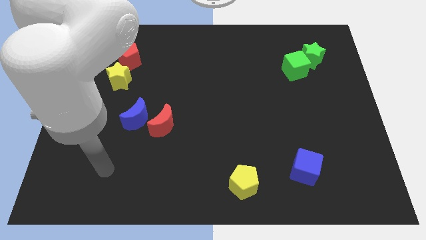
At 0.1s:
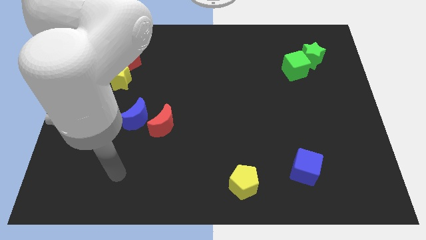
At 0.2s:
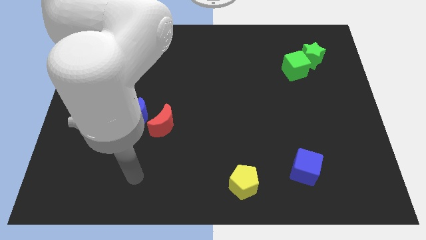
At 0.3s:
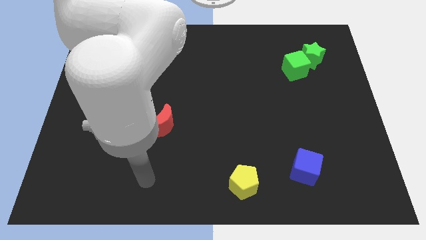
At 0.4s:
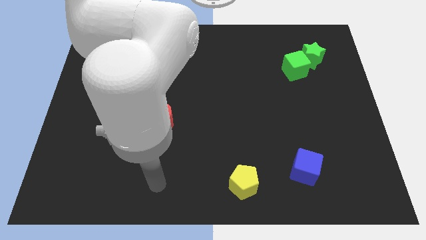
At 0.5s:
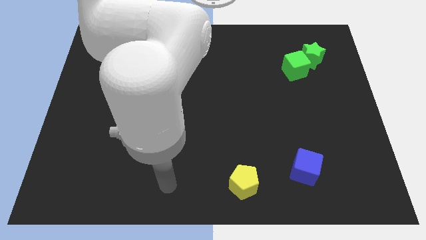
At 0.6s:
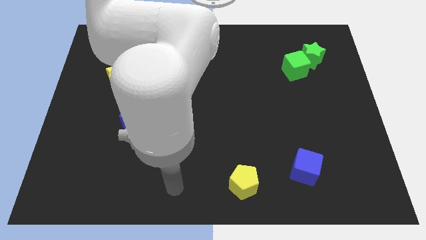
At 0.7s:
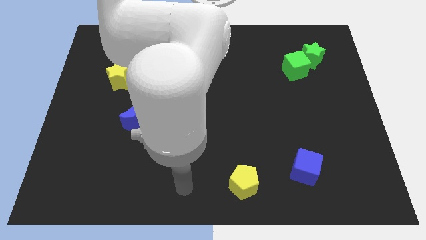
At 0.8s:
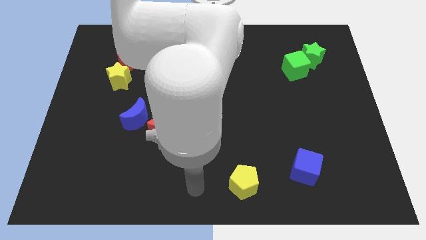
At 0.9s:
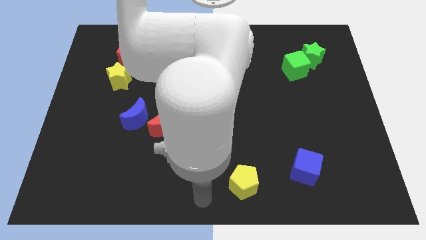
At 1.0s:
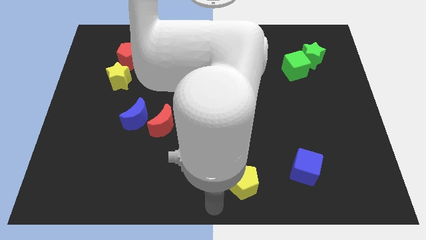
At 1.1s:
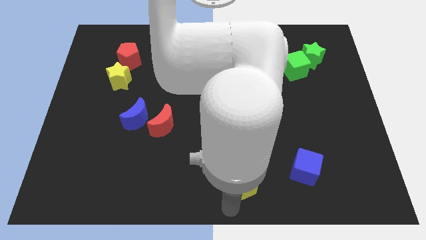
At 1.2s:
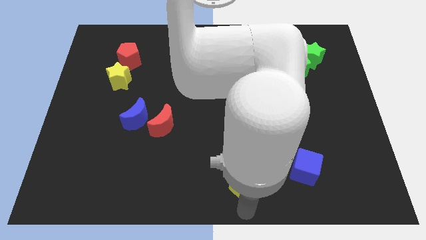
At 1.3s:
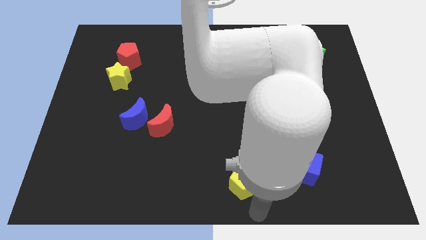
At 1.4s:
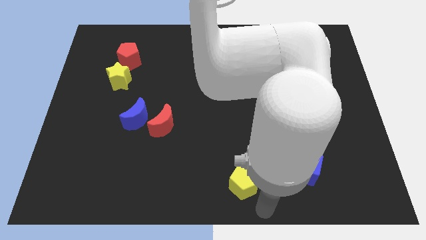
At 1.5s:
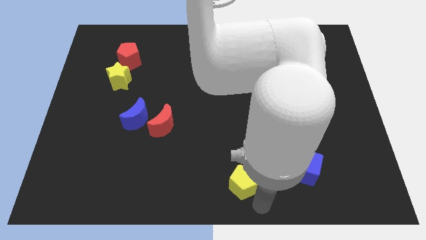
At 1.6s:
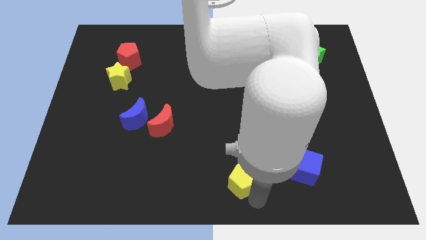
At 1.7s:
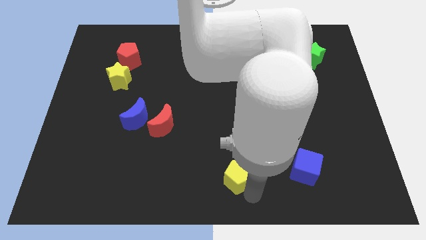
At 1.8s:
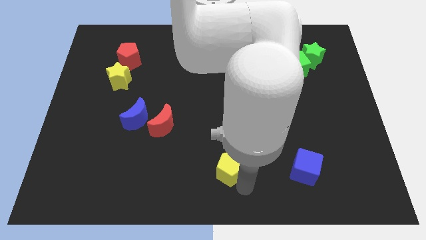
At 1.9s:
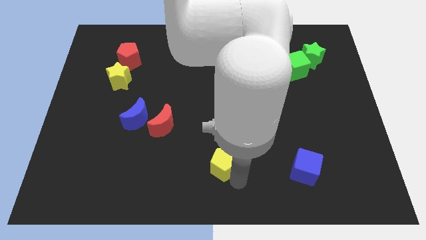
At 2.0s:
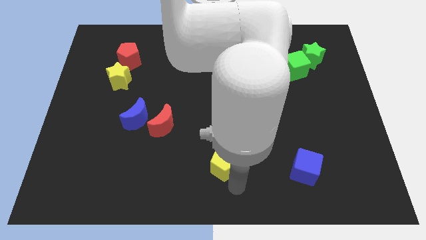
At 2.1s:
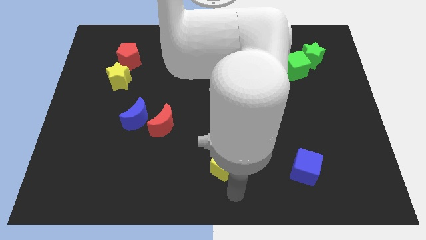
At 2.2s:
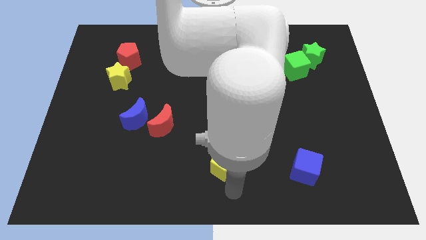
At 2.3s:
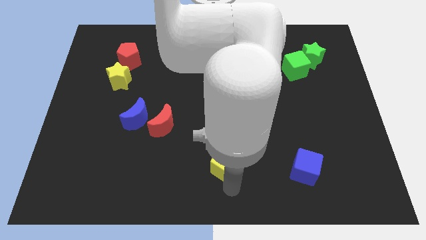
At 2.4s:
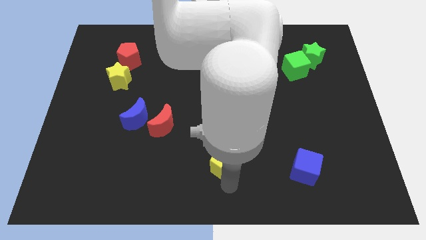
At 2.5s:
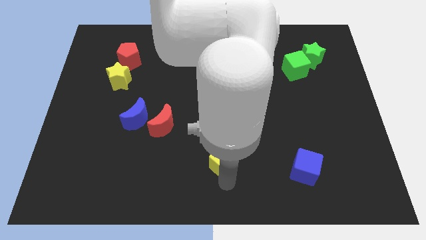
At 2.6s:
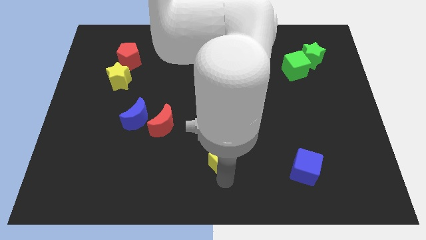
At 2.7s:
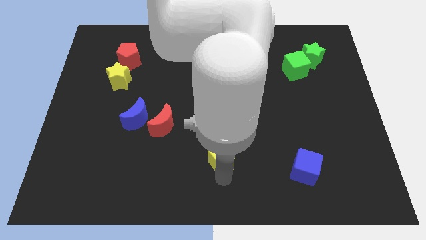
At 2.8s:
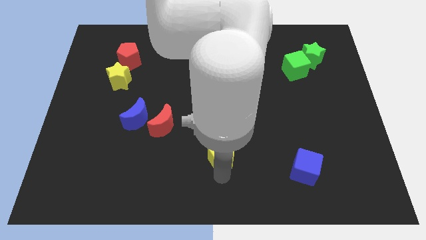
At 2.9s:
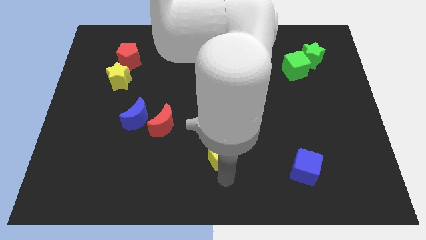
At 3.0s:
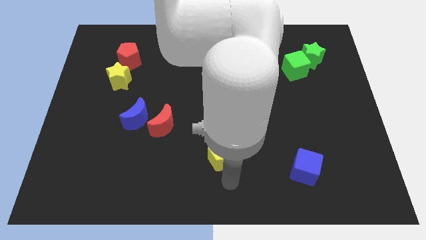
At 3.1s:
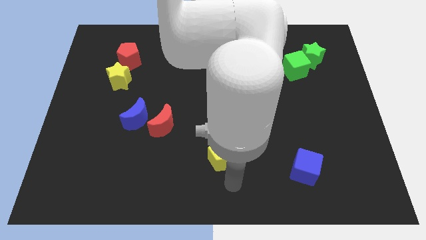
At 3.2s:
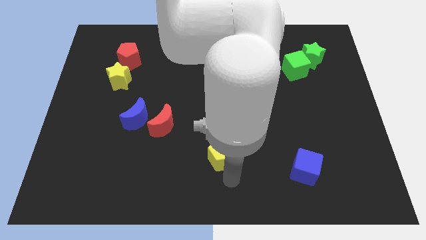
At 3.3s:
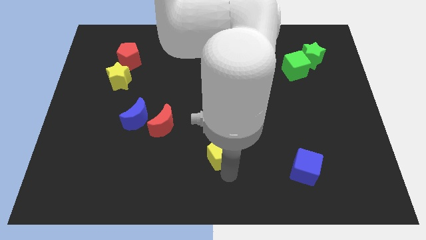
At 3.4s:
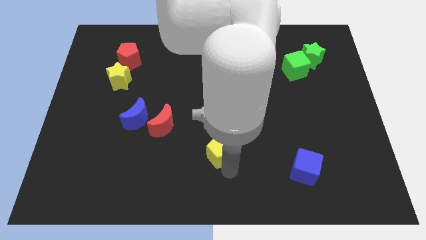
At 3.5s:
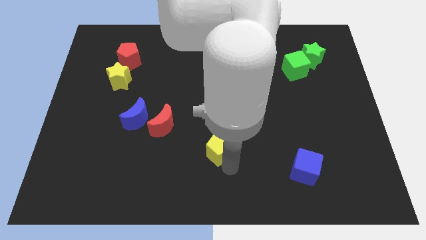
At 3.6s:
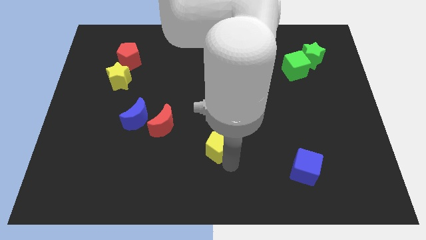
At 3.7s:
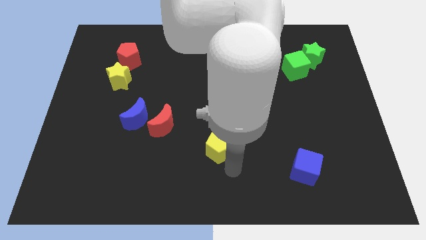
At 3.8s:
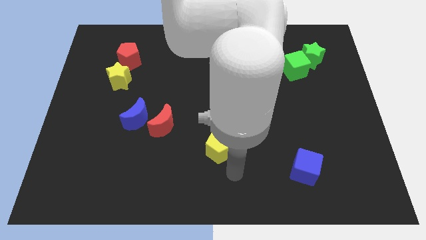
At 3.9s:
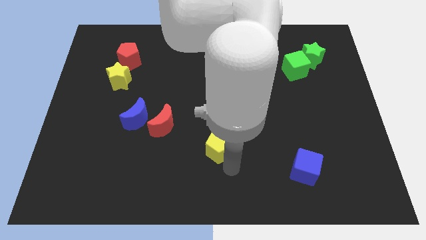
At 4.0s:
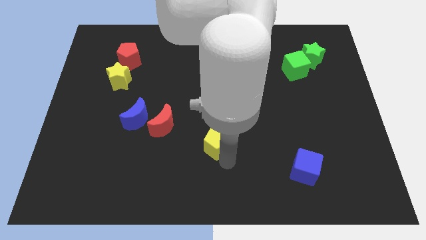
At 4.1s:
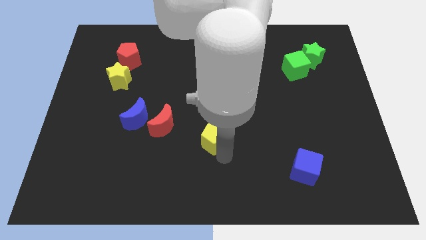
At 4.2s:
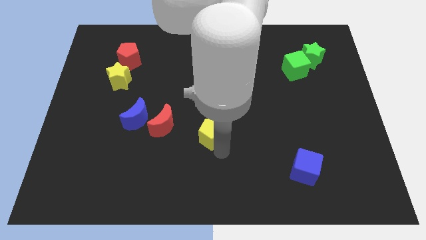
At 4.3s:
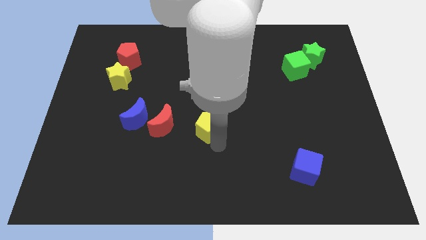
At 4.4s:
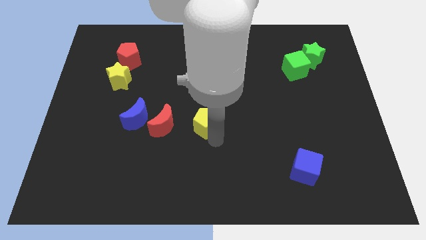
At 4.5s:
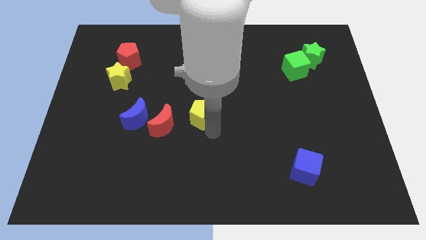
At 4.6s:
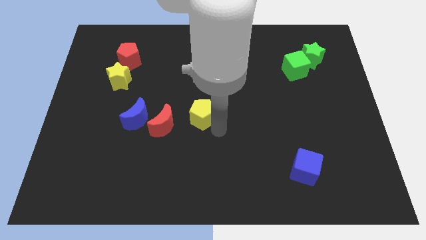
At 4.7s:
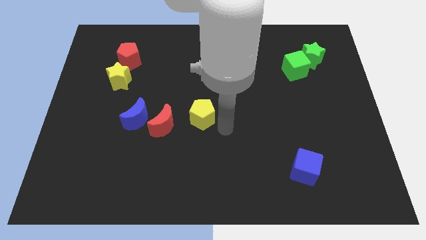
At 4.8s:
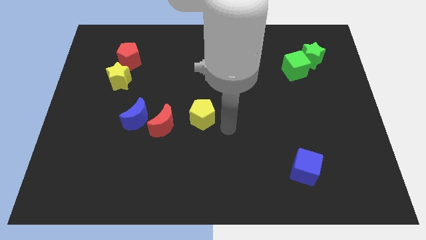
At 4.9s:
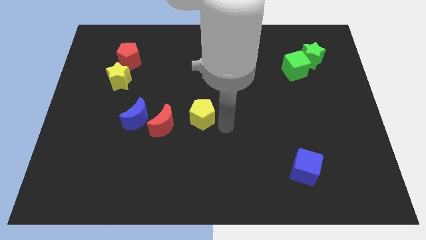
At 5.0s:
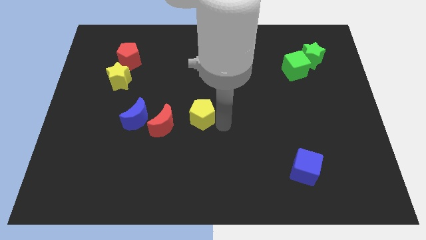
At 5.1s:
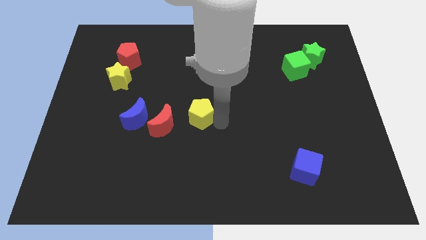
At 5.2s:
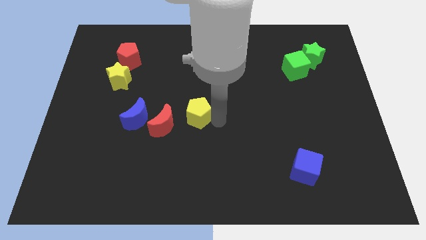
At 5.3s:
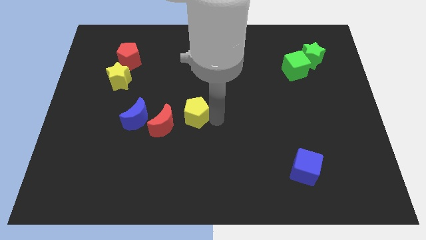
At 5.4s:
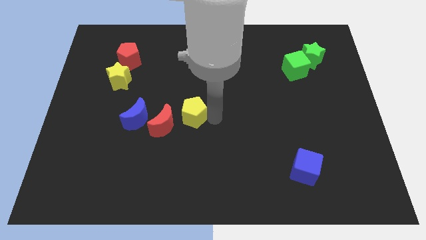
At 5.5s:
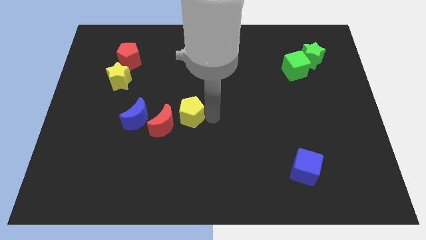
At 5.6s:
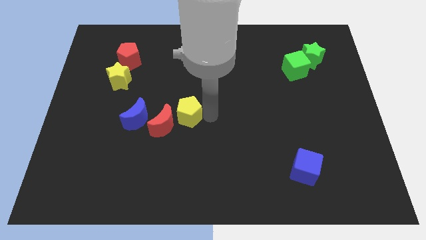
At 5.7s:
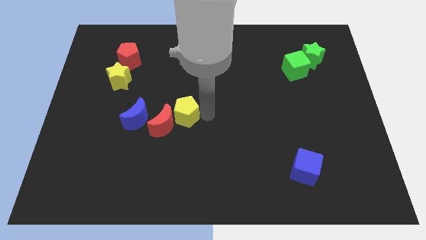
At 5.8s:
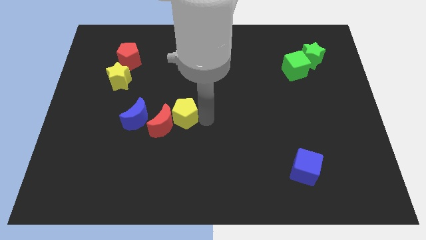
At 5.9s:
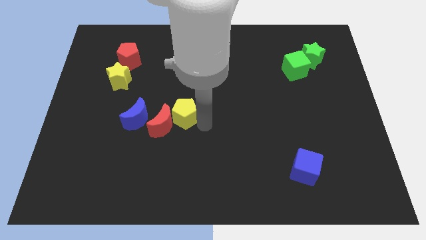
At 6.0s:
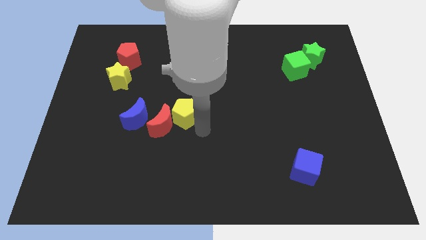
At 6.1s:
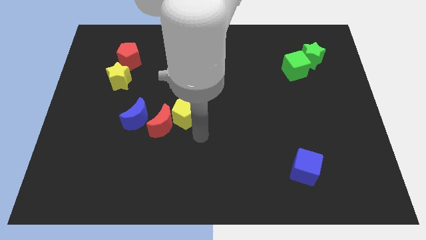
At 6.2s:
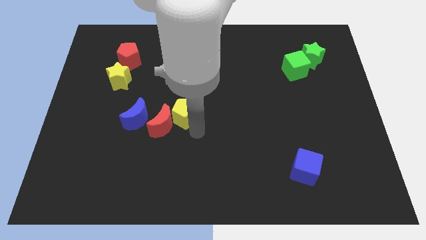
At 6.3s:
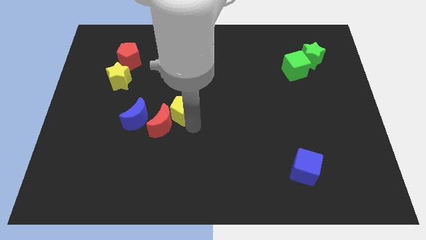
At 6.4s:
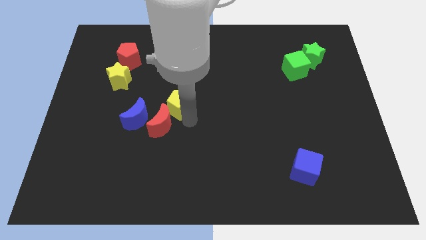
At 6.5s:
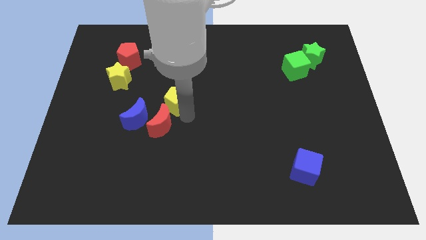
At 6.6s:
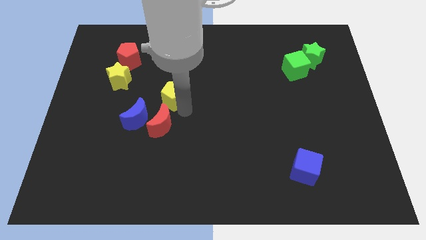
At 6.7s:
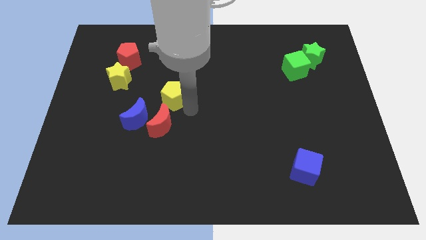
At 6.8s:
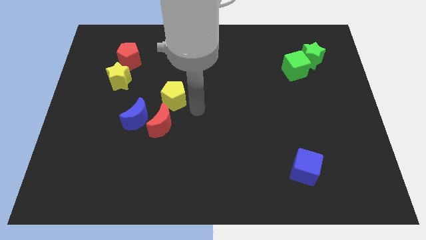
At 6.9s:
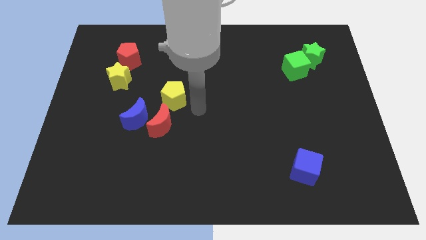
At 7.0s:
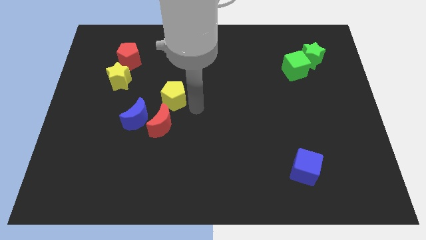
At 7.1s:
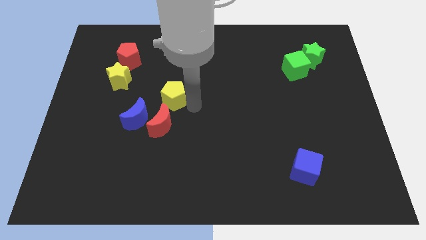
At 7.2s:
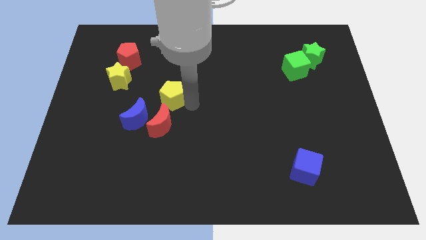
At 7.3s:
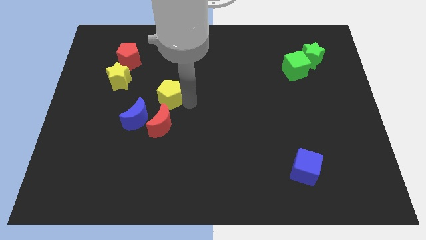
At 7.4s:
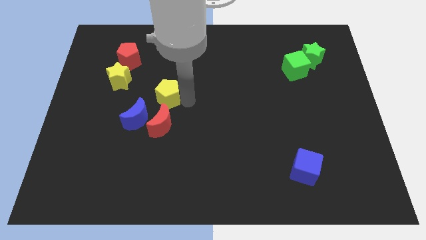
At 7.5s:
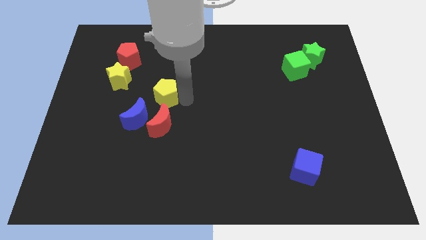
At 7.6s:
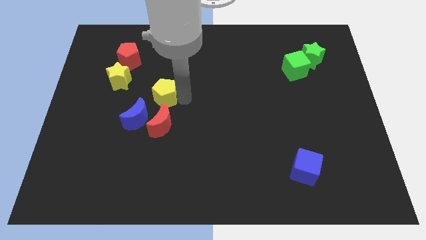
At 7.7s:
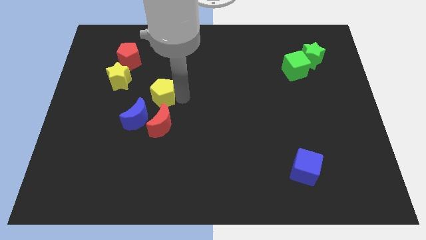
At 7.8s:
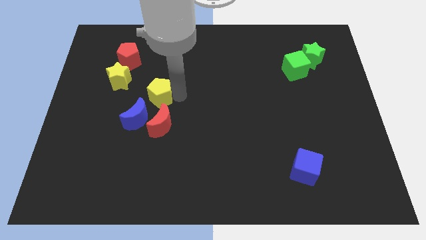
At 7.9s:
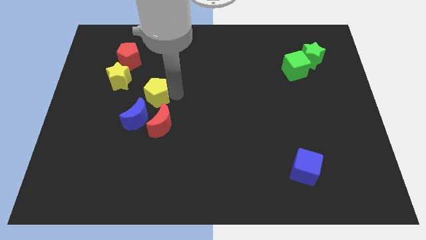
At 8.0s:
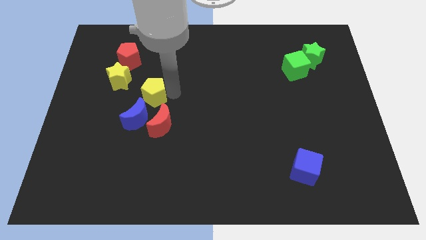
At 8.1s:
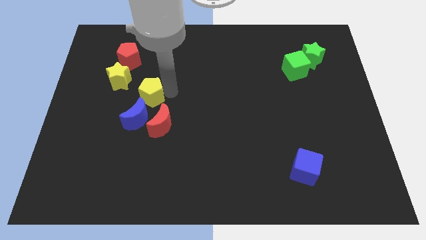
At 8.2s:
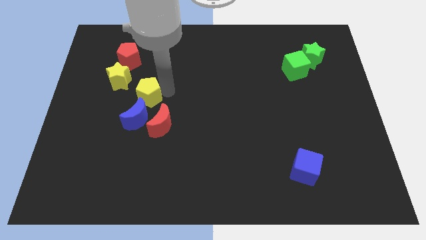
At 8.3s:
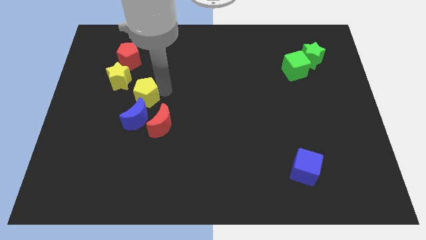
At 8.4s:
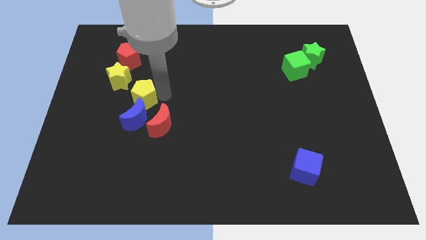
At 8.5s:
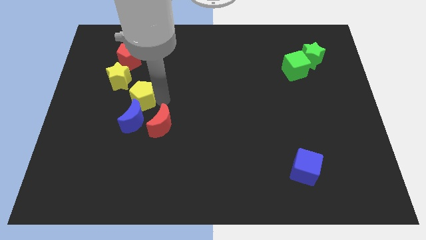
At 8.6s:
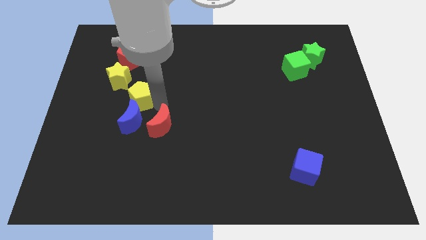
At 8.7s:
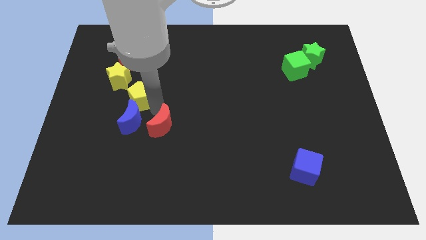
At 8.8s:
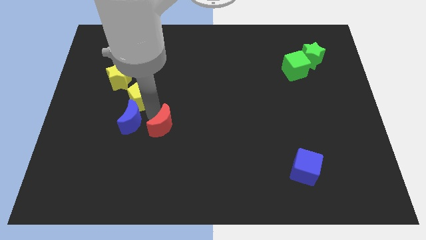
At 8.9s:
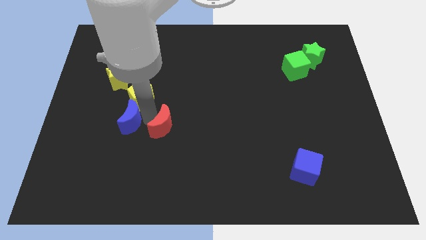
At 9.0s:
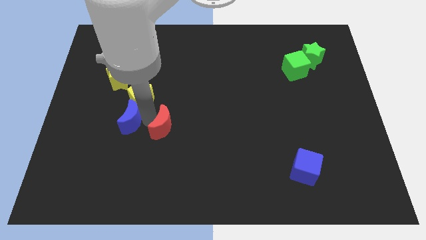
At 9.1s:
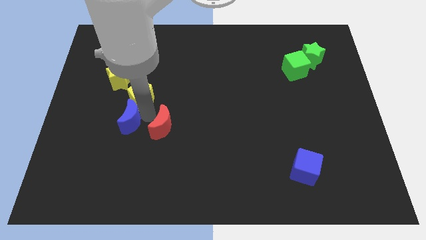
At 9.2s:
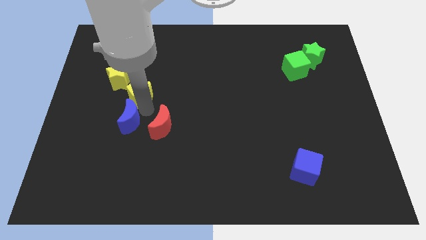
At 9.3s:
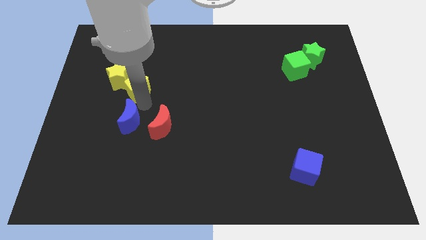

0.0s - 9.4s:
slide the yellow pentagon next to the yellow star
